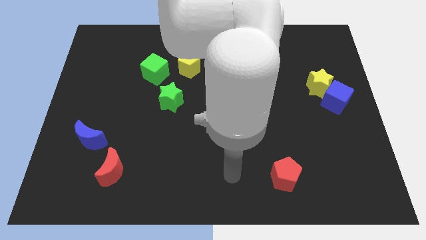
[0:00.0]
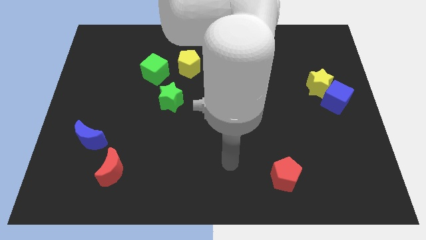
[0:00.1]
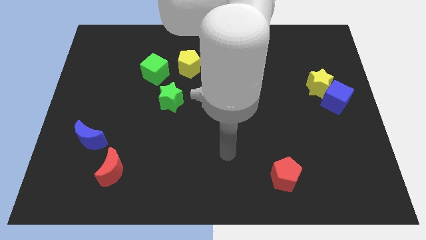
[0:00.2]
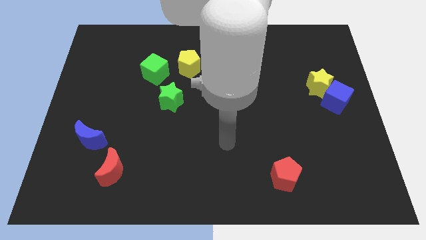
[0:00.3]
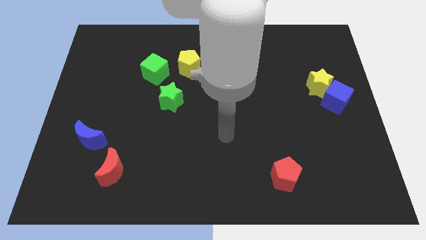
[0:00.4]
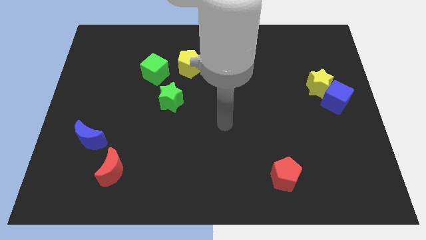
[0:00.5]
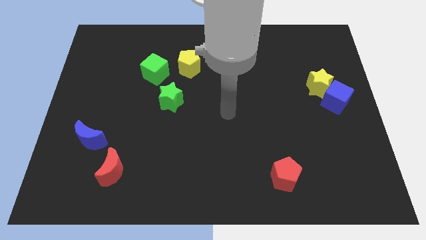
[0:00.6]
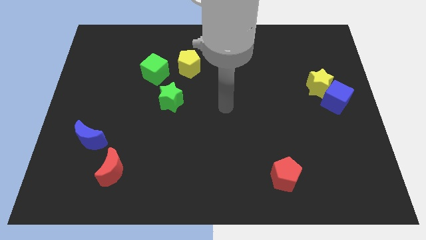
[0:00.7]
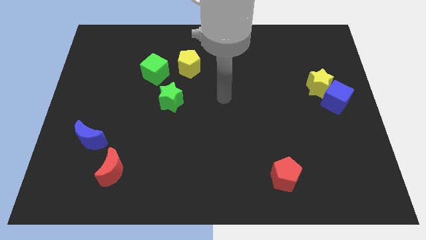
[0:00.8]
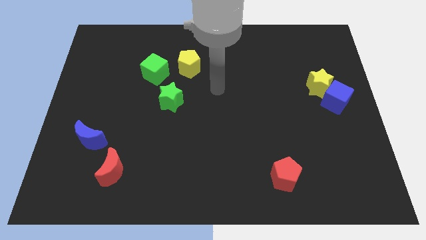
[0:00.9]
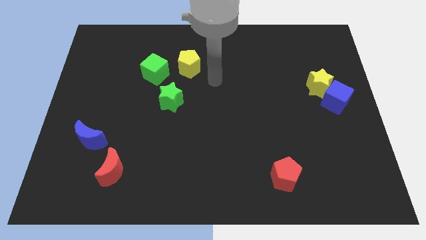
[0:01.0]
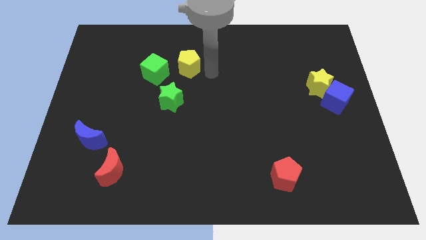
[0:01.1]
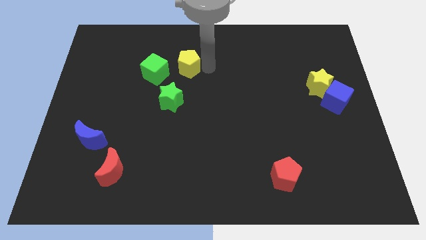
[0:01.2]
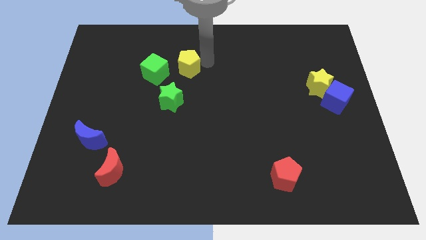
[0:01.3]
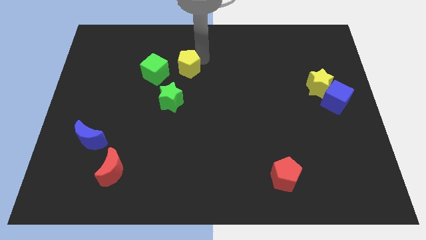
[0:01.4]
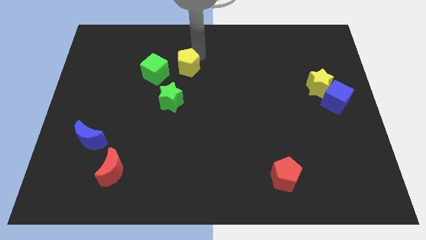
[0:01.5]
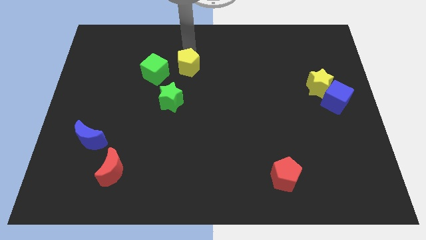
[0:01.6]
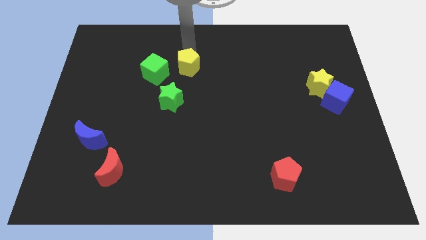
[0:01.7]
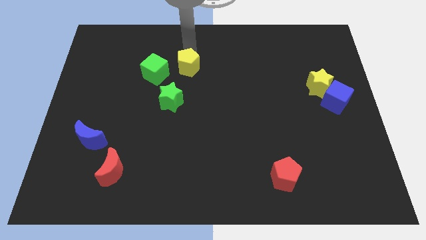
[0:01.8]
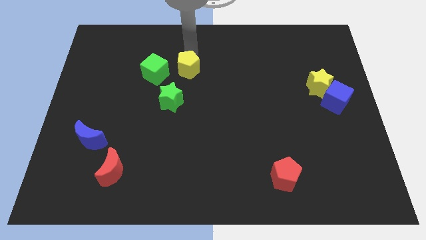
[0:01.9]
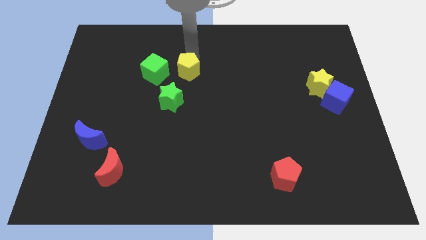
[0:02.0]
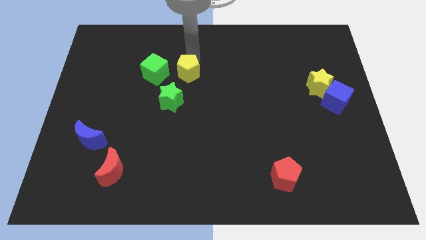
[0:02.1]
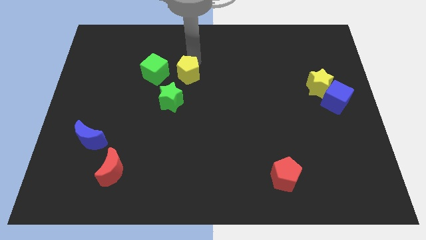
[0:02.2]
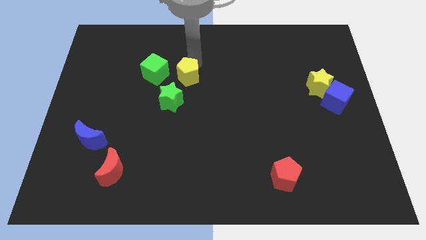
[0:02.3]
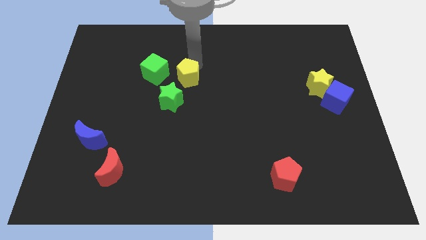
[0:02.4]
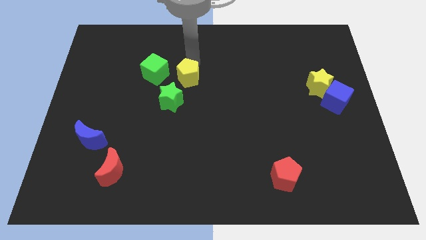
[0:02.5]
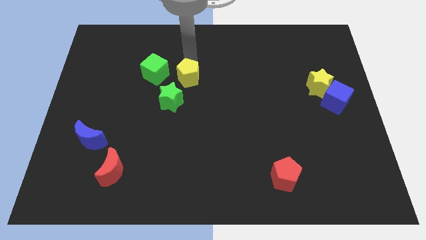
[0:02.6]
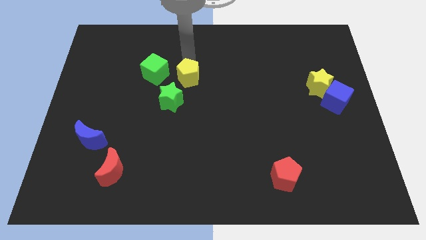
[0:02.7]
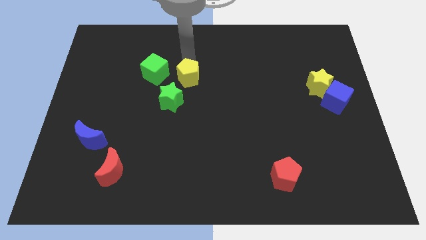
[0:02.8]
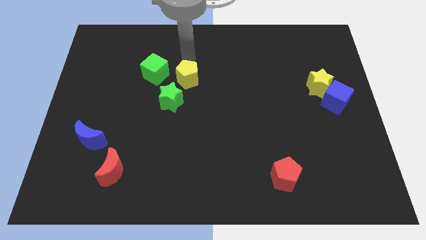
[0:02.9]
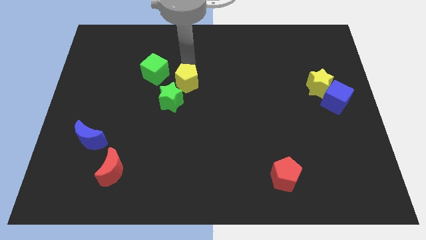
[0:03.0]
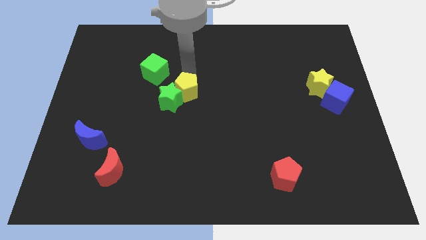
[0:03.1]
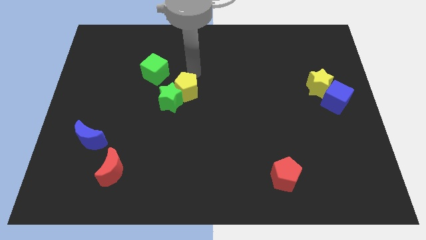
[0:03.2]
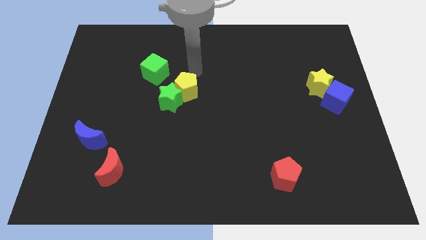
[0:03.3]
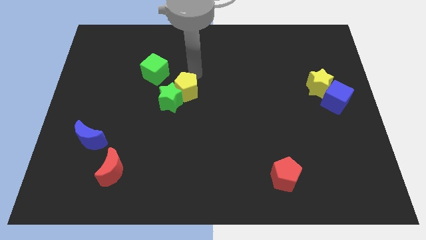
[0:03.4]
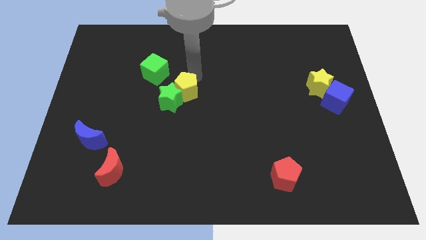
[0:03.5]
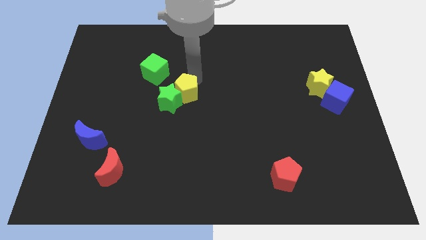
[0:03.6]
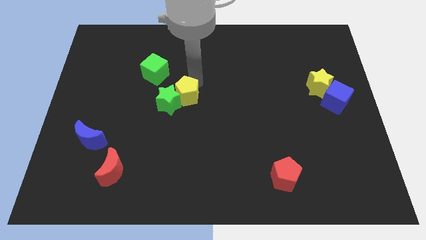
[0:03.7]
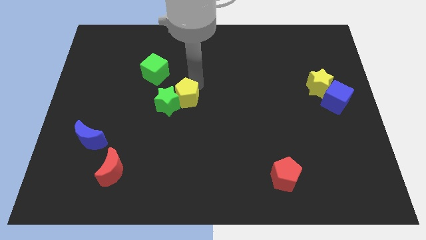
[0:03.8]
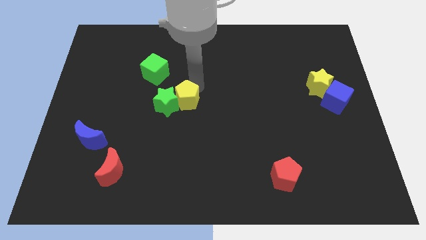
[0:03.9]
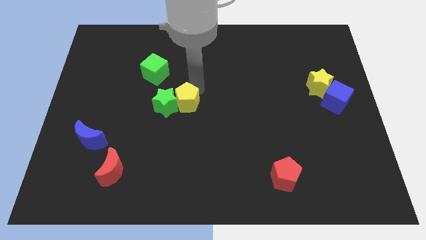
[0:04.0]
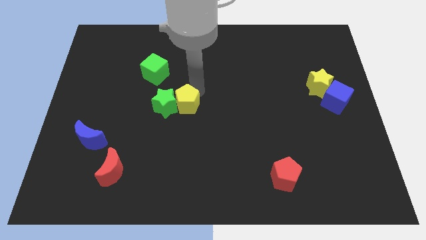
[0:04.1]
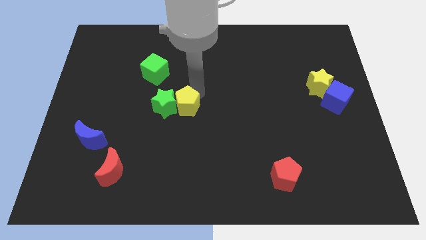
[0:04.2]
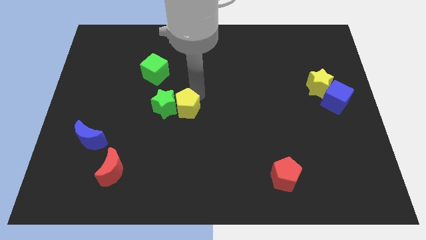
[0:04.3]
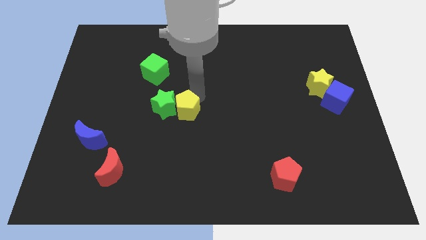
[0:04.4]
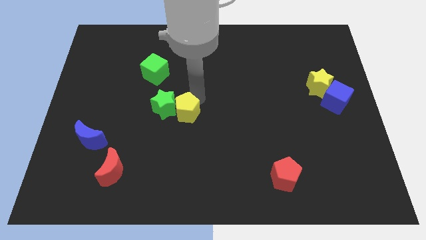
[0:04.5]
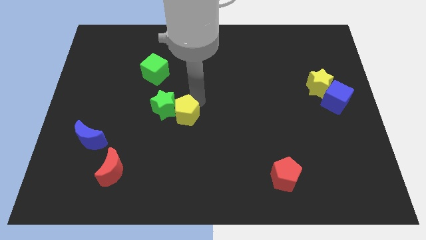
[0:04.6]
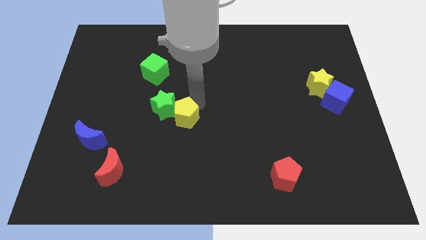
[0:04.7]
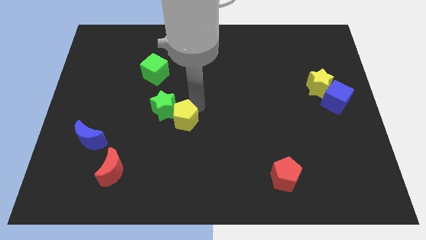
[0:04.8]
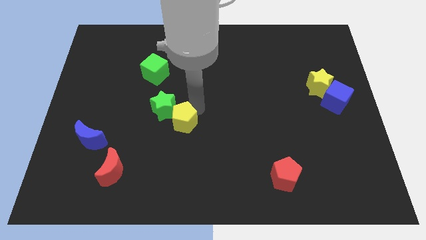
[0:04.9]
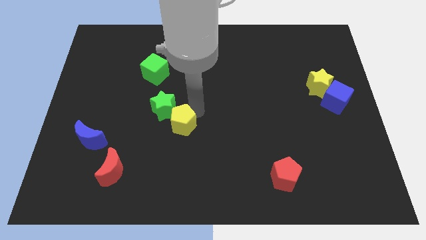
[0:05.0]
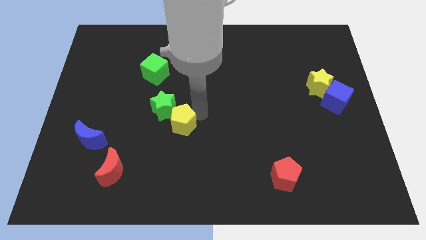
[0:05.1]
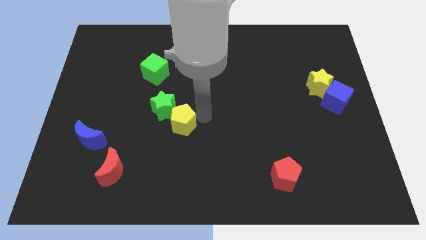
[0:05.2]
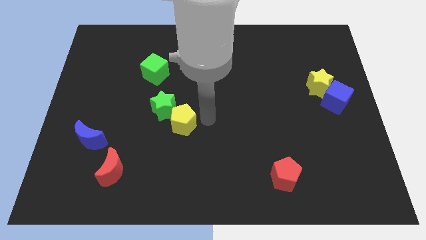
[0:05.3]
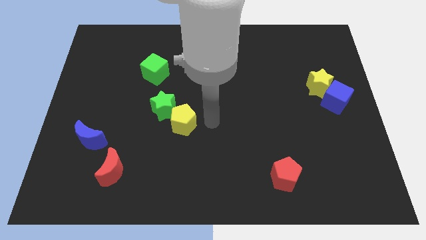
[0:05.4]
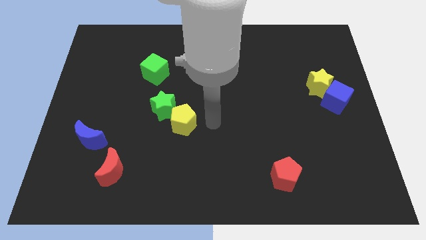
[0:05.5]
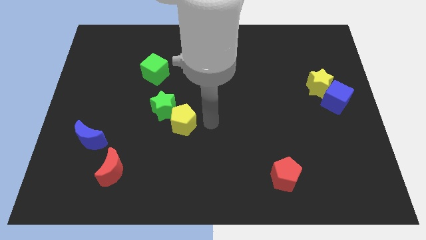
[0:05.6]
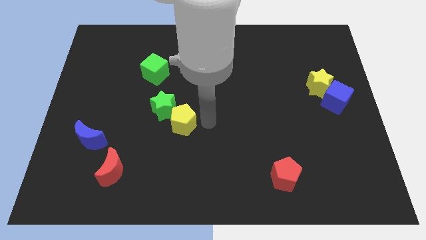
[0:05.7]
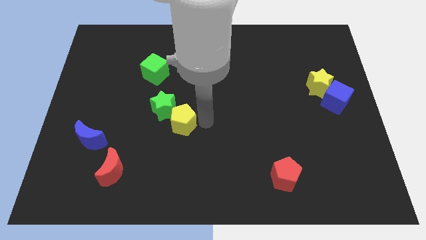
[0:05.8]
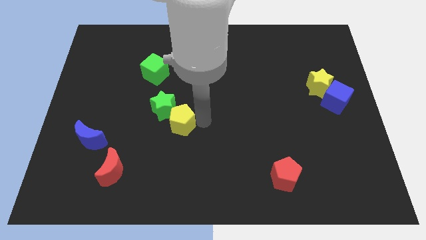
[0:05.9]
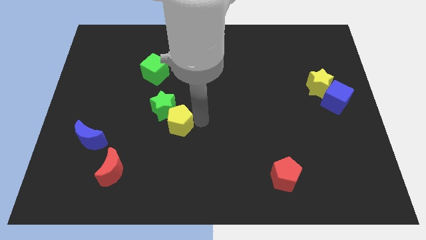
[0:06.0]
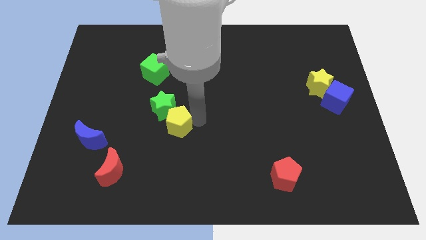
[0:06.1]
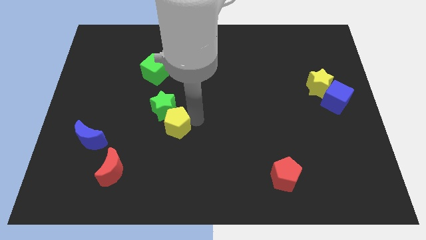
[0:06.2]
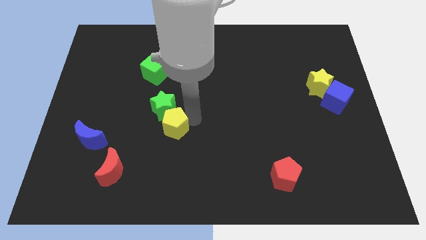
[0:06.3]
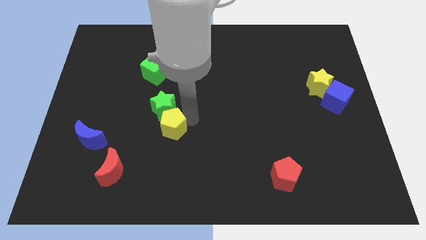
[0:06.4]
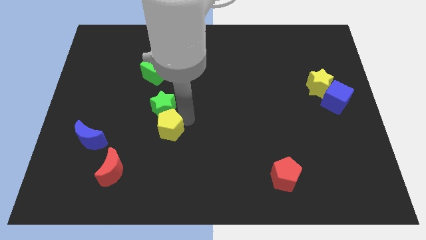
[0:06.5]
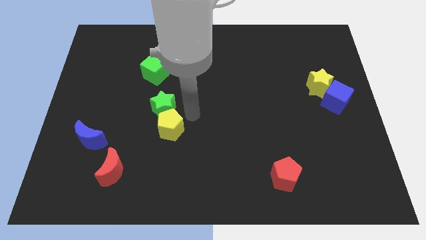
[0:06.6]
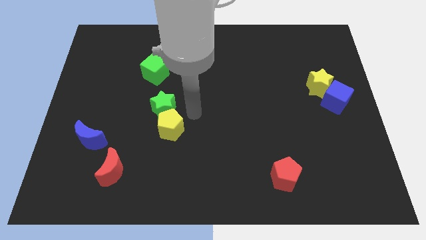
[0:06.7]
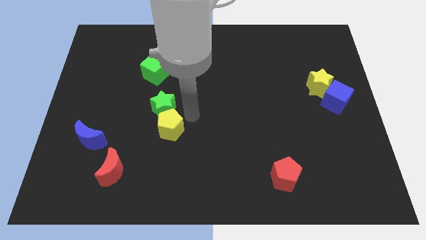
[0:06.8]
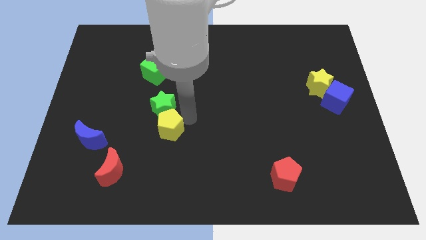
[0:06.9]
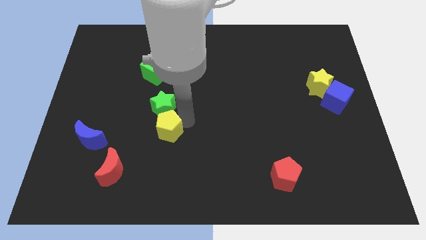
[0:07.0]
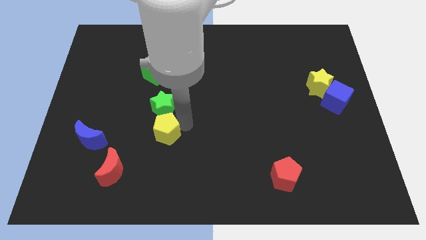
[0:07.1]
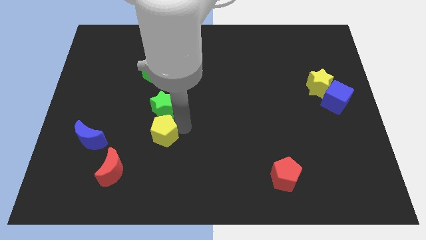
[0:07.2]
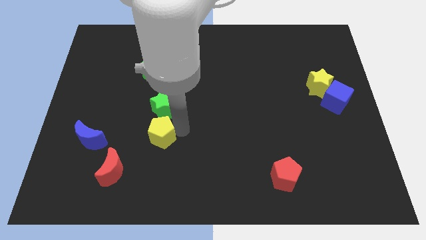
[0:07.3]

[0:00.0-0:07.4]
slide the yellow pentagon to the top right of the red moon
